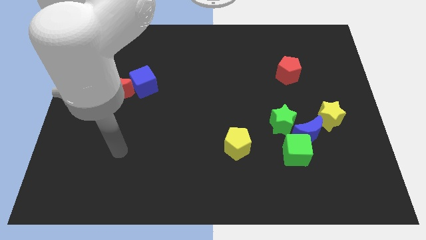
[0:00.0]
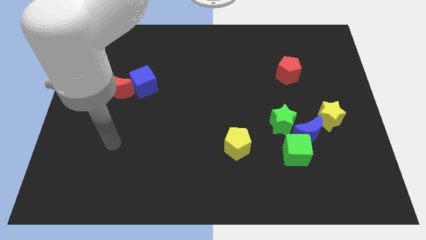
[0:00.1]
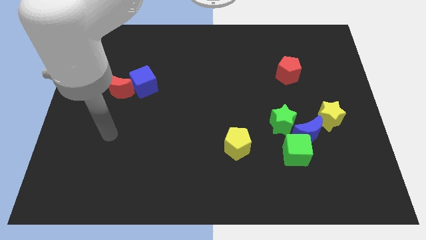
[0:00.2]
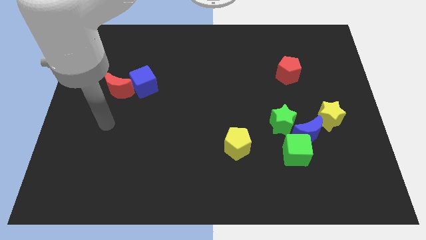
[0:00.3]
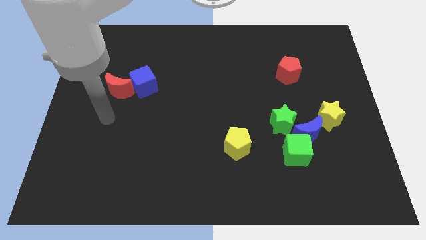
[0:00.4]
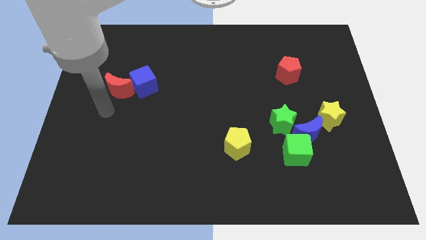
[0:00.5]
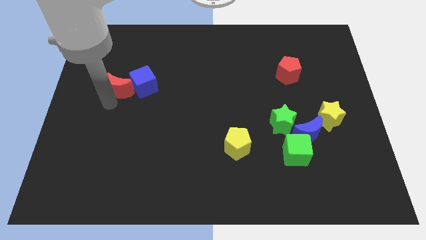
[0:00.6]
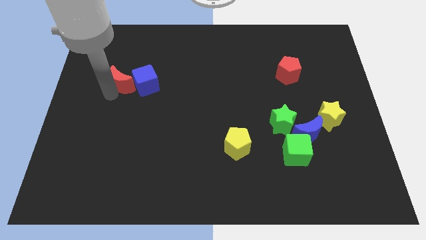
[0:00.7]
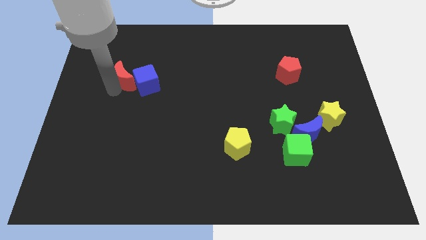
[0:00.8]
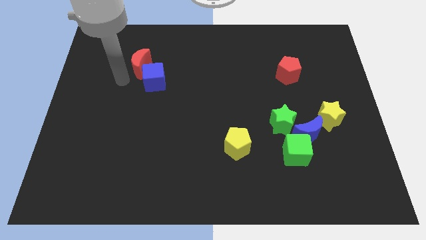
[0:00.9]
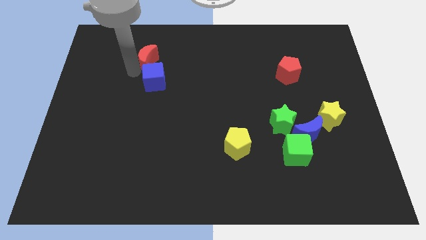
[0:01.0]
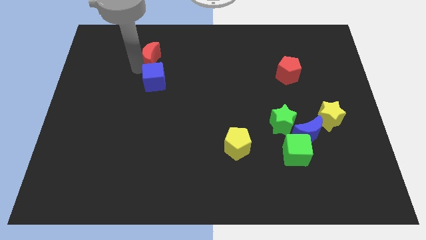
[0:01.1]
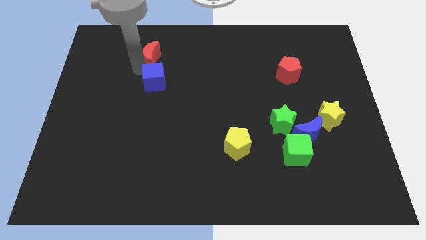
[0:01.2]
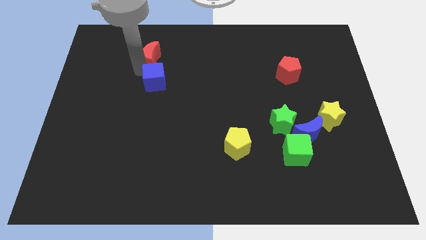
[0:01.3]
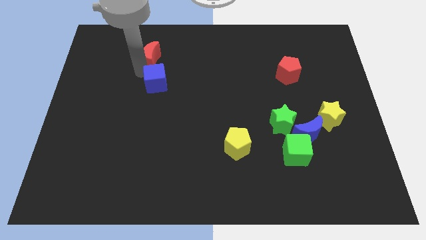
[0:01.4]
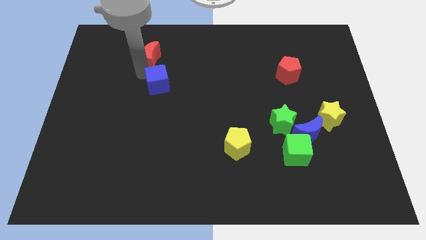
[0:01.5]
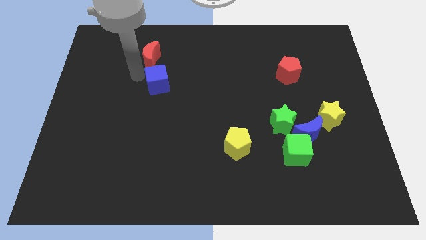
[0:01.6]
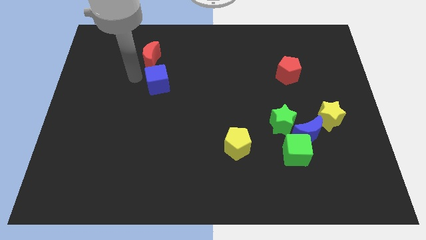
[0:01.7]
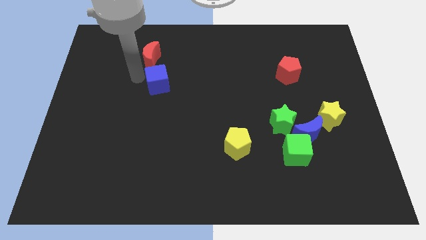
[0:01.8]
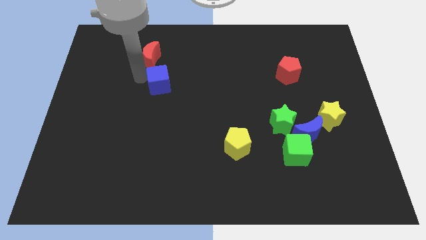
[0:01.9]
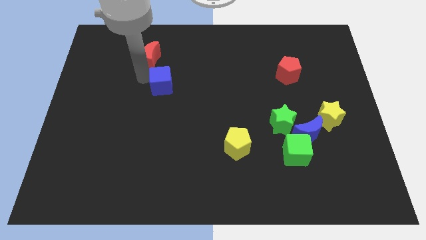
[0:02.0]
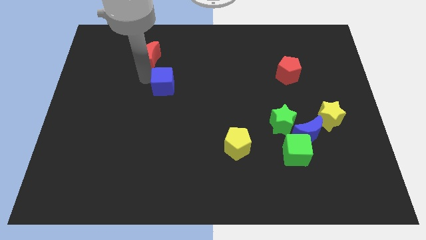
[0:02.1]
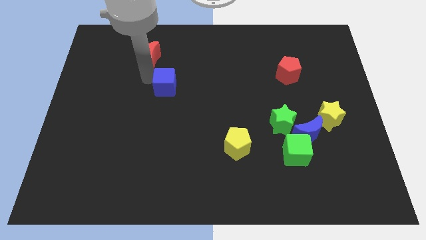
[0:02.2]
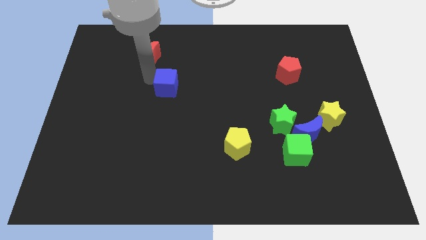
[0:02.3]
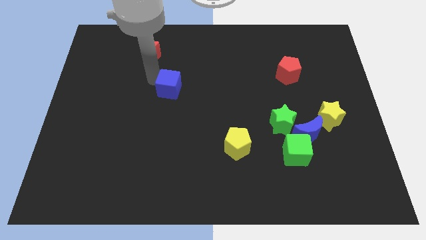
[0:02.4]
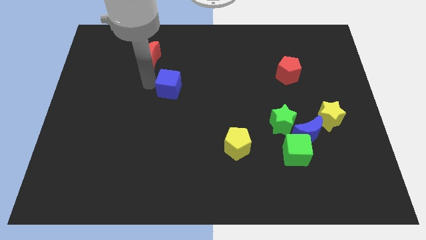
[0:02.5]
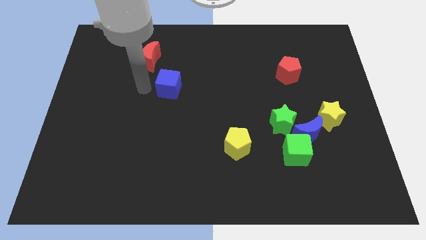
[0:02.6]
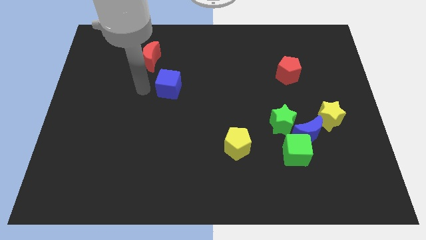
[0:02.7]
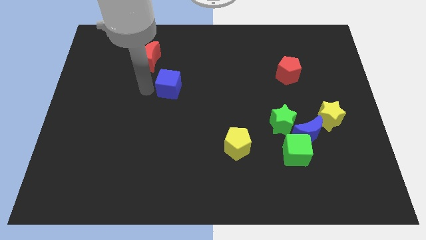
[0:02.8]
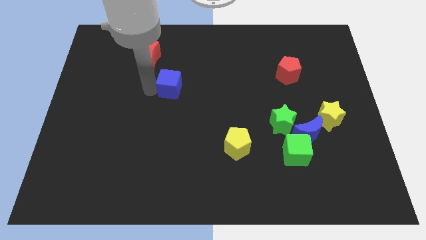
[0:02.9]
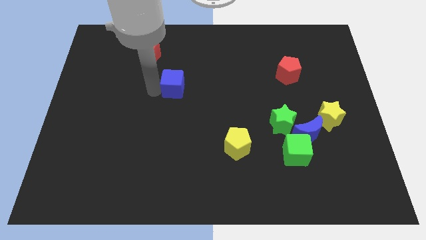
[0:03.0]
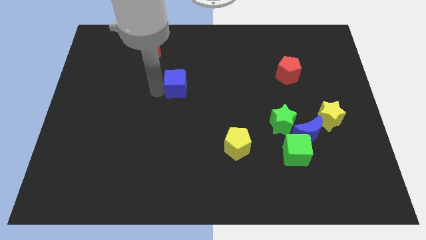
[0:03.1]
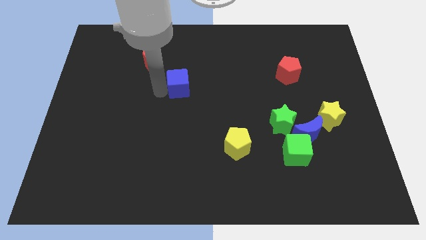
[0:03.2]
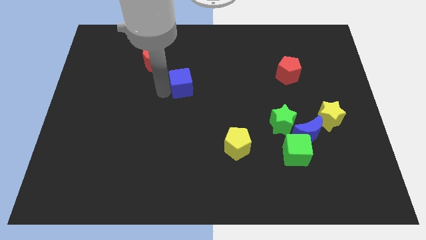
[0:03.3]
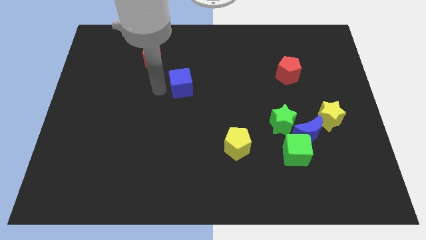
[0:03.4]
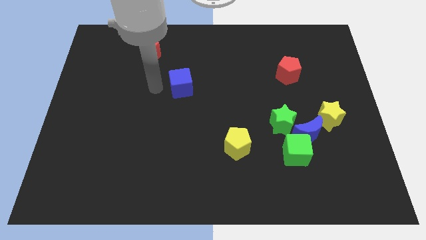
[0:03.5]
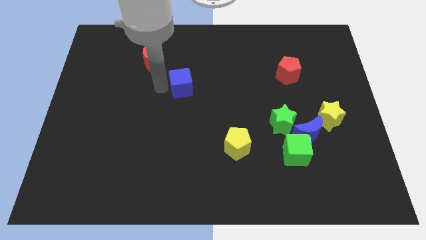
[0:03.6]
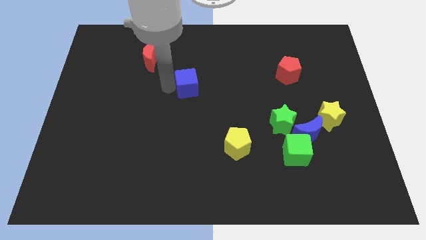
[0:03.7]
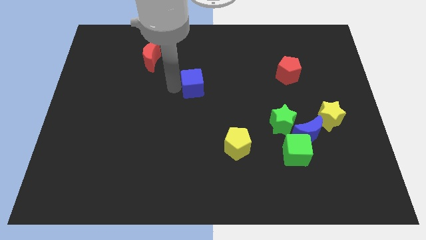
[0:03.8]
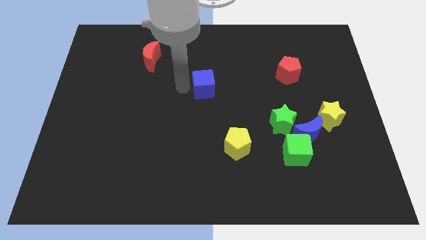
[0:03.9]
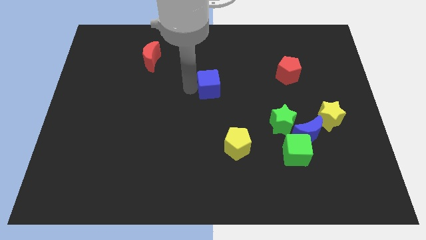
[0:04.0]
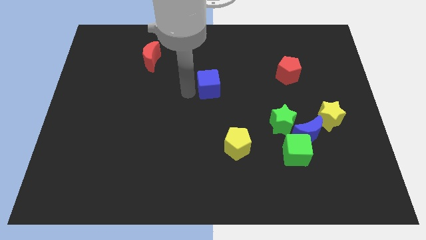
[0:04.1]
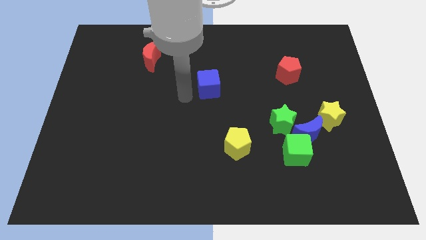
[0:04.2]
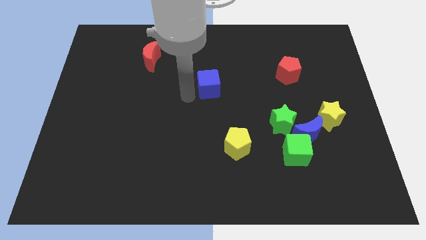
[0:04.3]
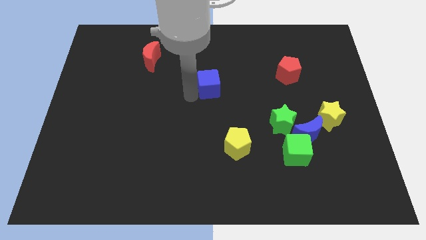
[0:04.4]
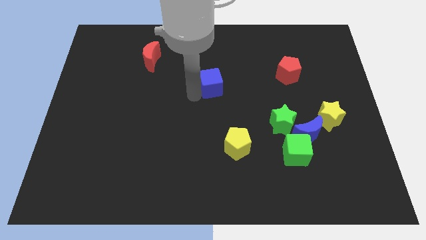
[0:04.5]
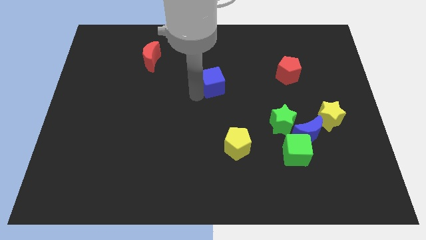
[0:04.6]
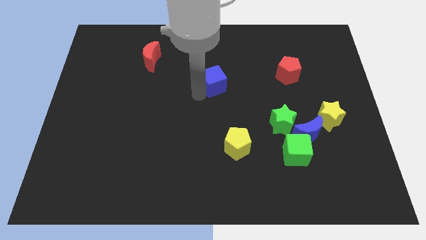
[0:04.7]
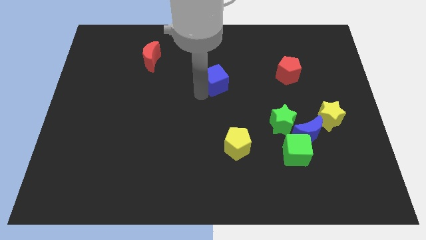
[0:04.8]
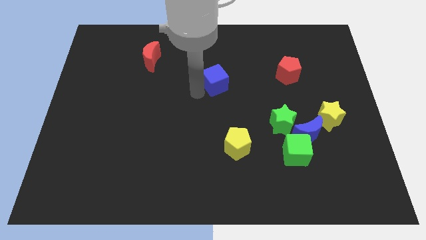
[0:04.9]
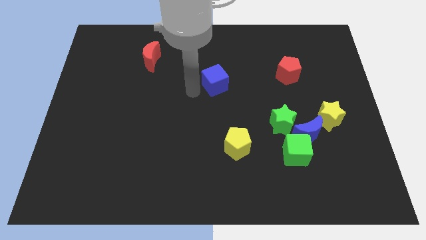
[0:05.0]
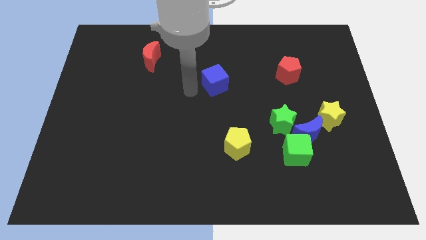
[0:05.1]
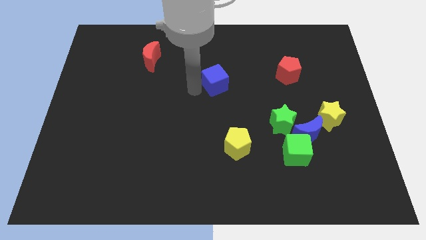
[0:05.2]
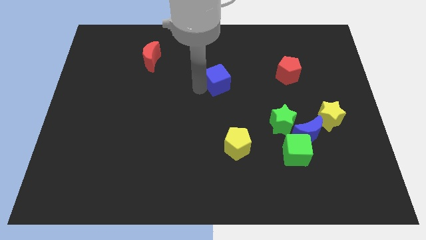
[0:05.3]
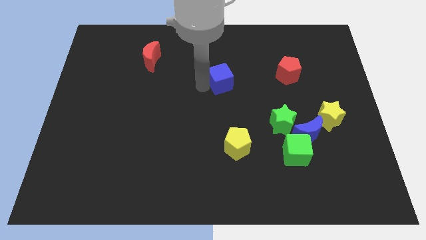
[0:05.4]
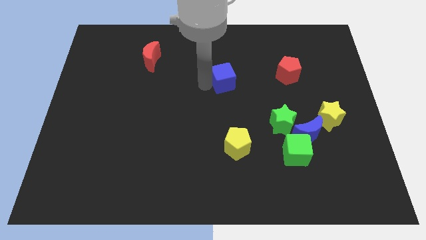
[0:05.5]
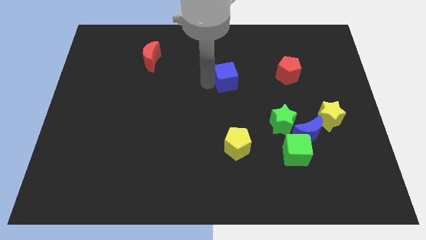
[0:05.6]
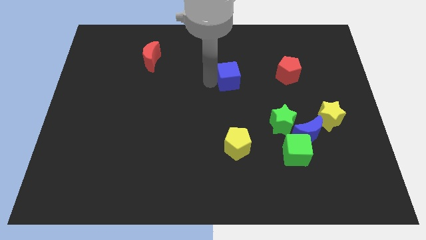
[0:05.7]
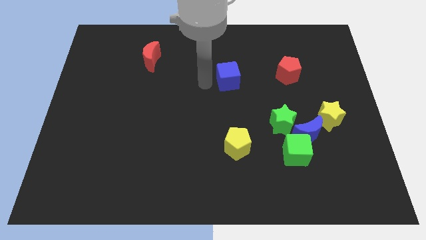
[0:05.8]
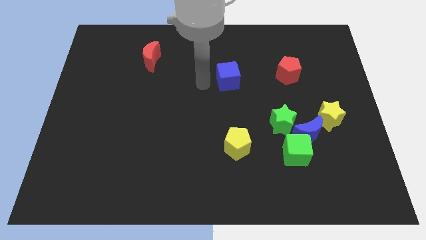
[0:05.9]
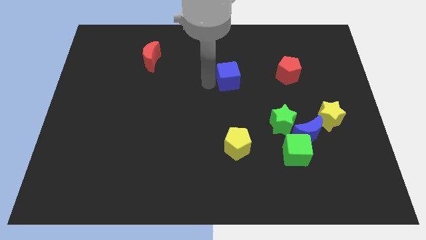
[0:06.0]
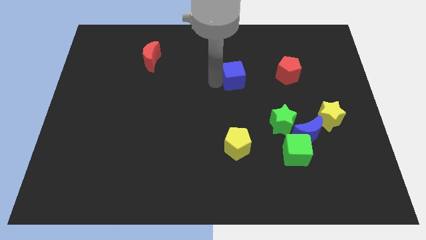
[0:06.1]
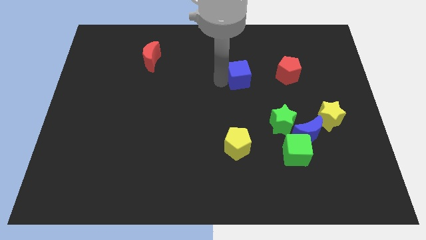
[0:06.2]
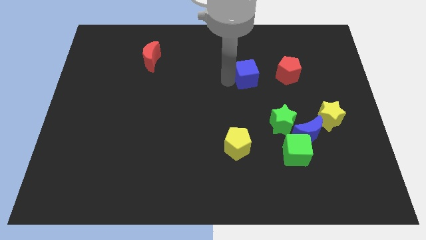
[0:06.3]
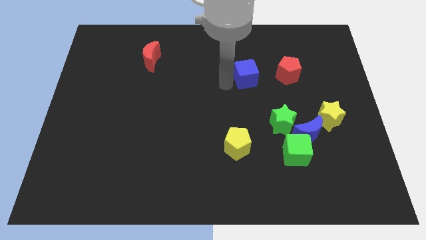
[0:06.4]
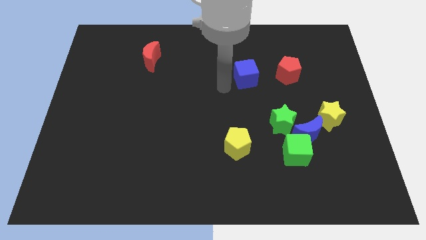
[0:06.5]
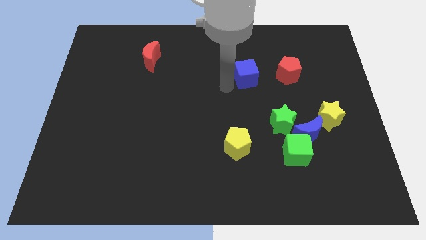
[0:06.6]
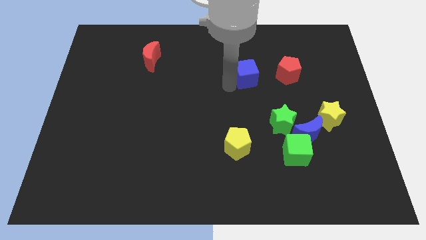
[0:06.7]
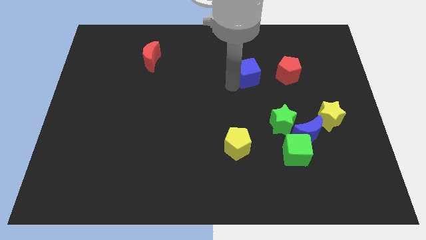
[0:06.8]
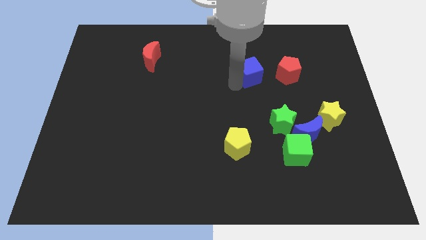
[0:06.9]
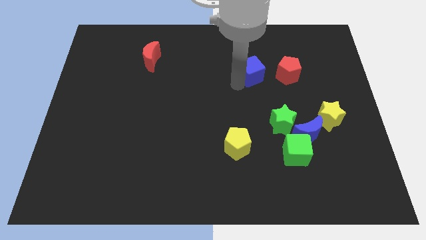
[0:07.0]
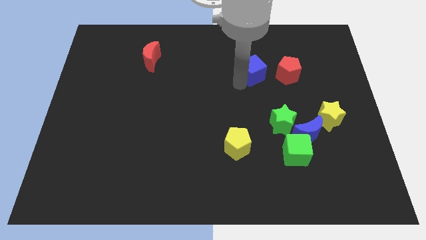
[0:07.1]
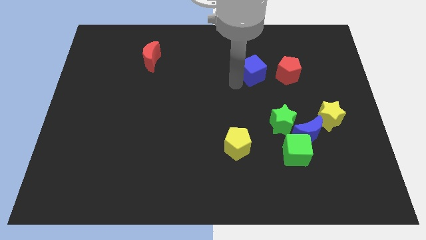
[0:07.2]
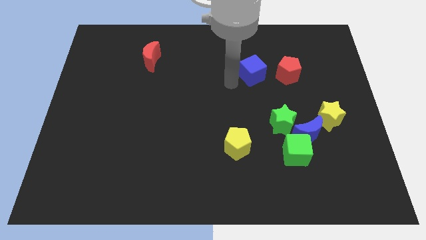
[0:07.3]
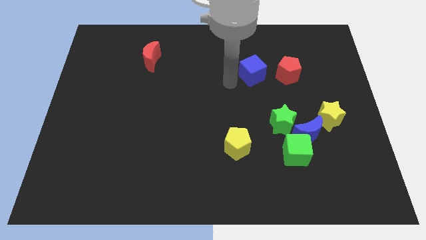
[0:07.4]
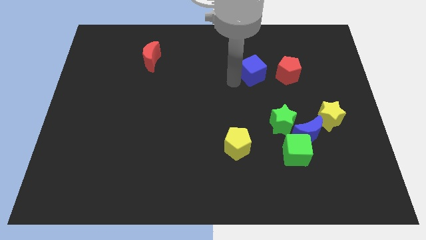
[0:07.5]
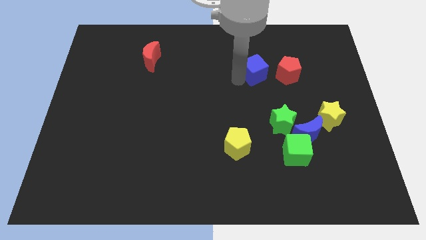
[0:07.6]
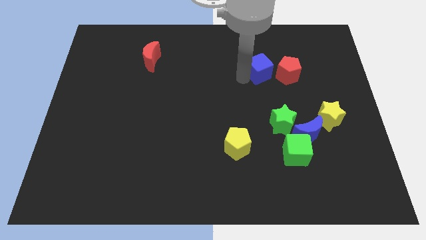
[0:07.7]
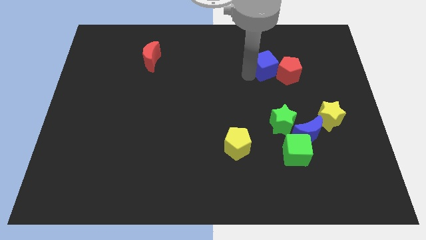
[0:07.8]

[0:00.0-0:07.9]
move the blue cube next to the red pentagon
